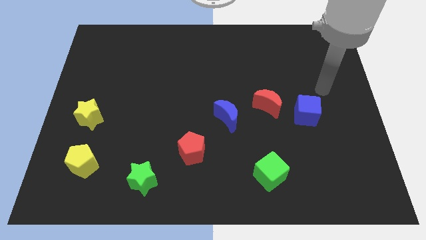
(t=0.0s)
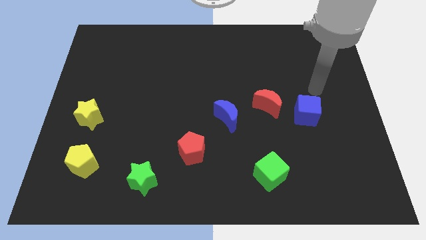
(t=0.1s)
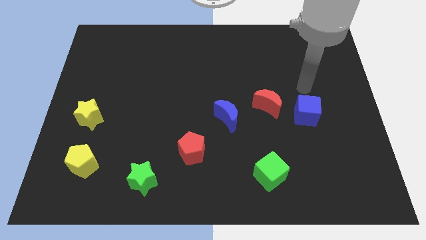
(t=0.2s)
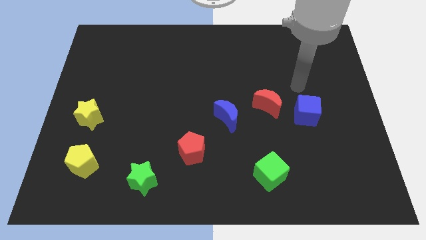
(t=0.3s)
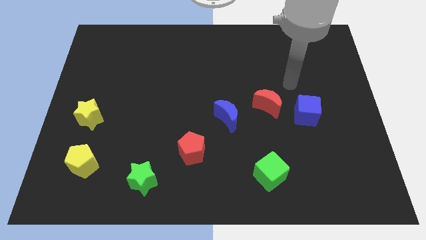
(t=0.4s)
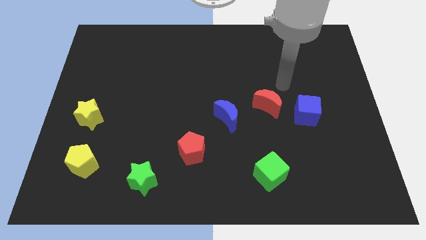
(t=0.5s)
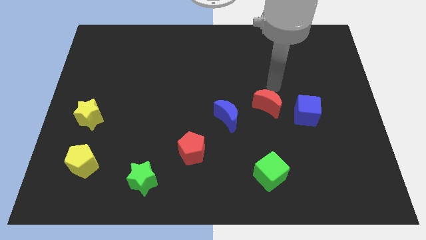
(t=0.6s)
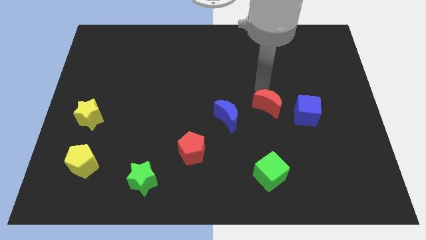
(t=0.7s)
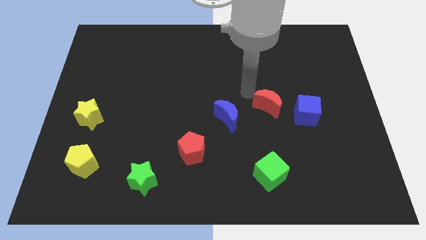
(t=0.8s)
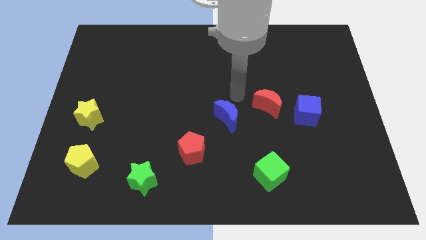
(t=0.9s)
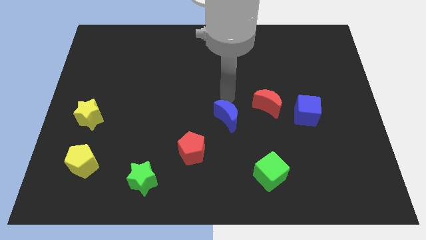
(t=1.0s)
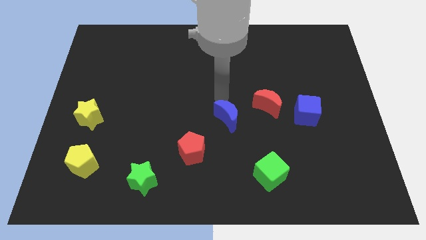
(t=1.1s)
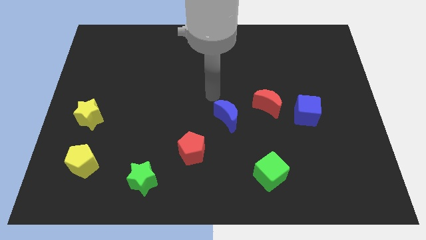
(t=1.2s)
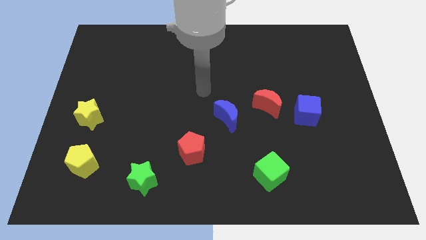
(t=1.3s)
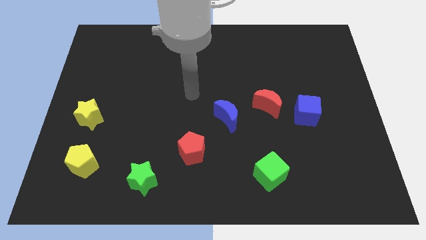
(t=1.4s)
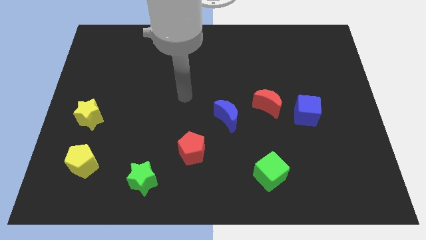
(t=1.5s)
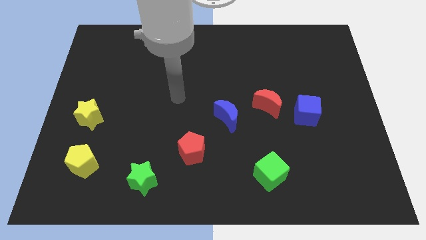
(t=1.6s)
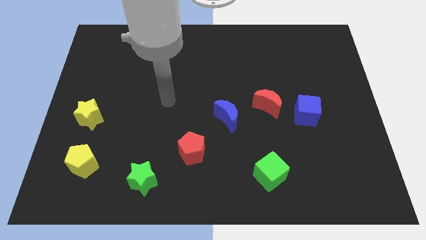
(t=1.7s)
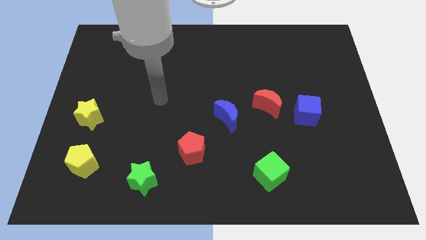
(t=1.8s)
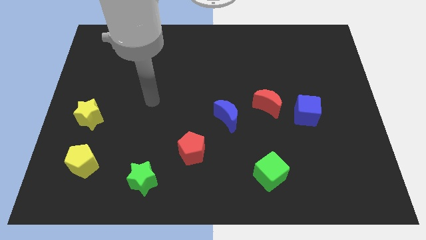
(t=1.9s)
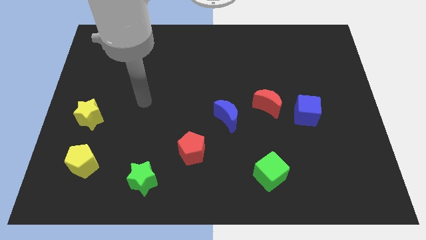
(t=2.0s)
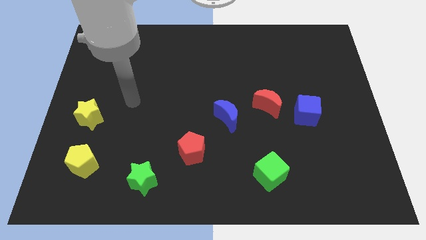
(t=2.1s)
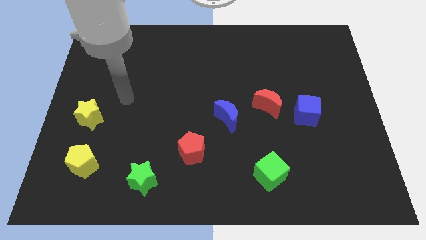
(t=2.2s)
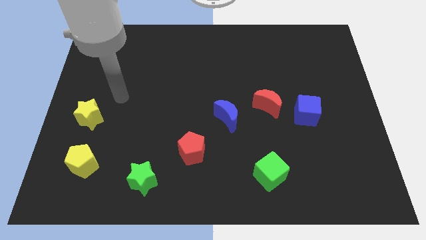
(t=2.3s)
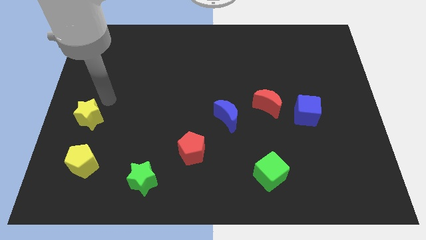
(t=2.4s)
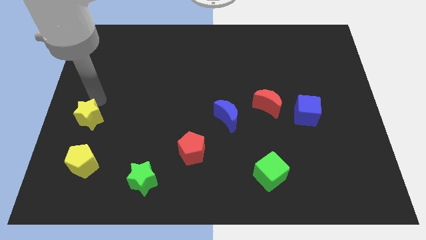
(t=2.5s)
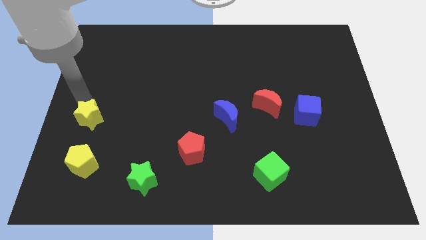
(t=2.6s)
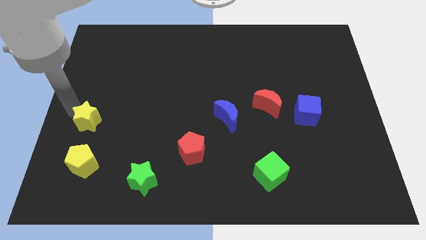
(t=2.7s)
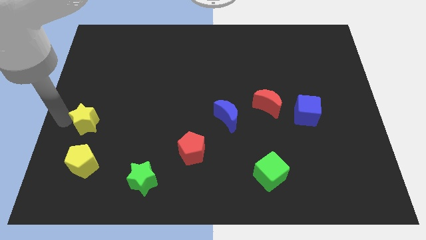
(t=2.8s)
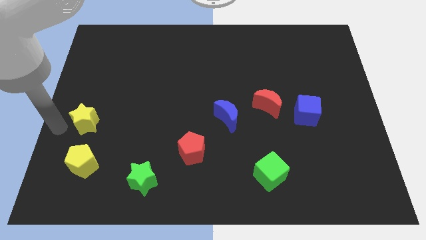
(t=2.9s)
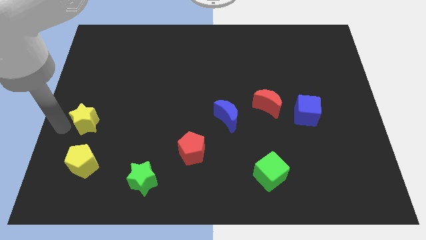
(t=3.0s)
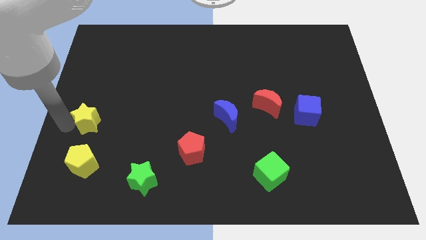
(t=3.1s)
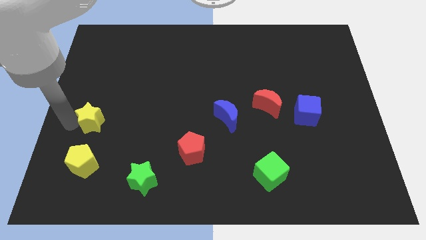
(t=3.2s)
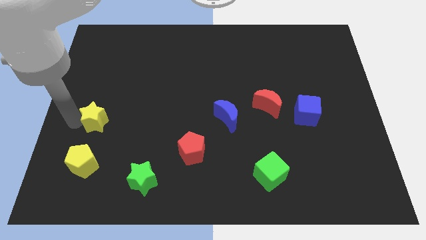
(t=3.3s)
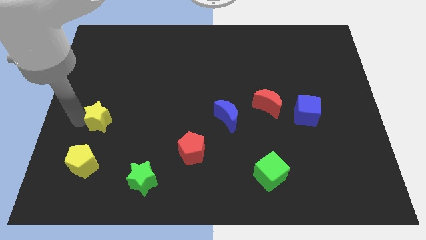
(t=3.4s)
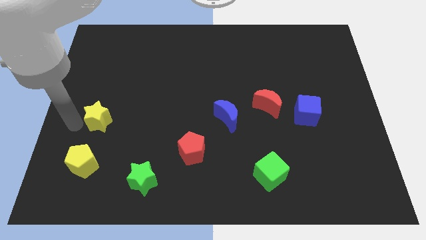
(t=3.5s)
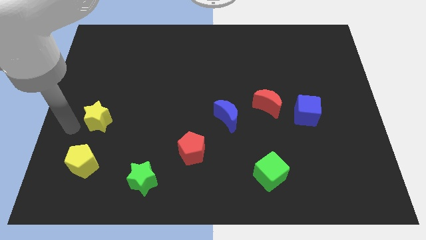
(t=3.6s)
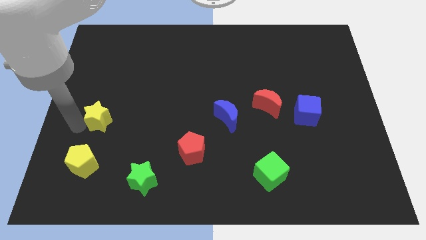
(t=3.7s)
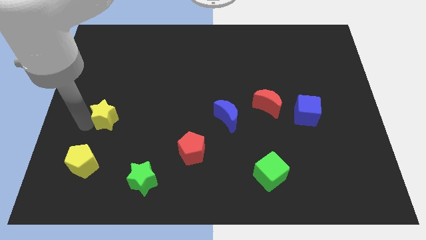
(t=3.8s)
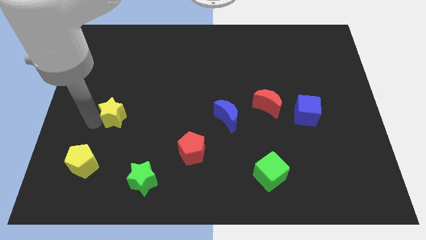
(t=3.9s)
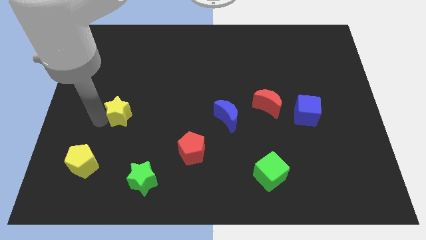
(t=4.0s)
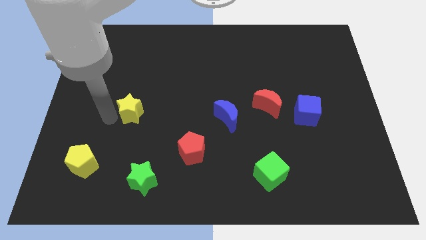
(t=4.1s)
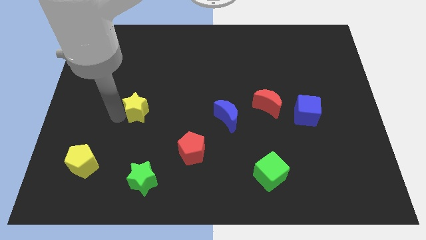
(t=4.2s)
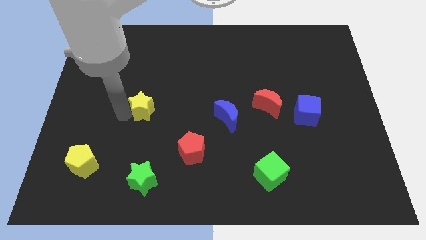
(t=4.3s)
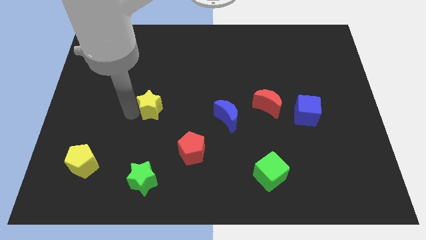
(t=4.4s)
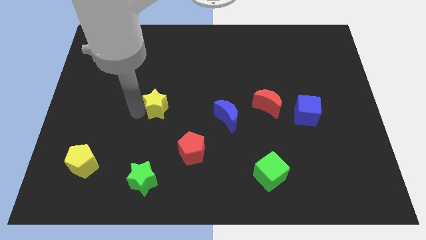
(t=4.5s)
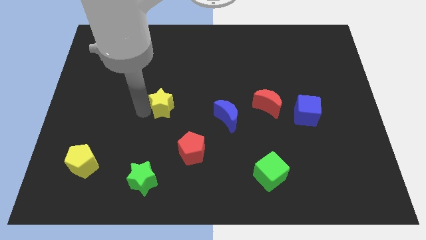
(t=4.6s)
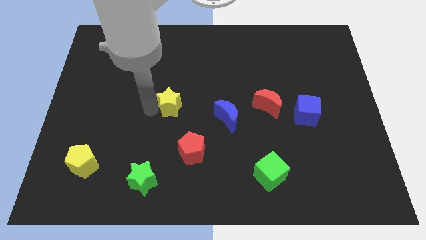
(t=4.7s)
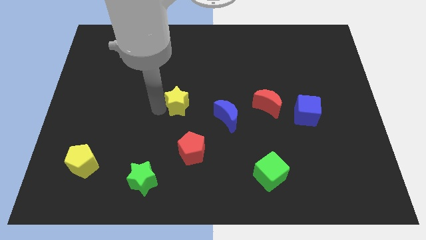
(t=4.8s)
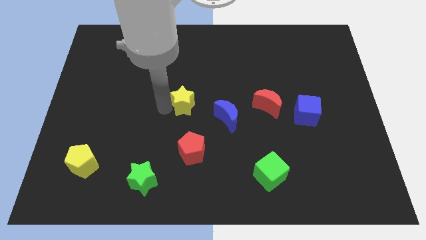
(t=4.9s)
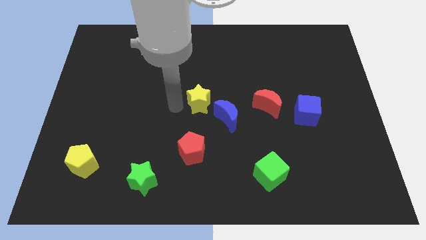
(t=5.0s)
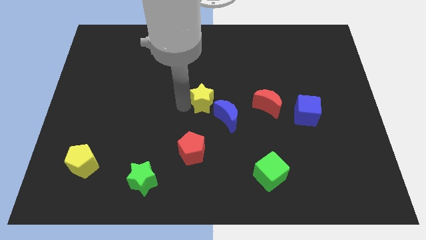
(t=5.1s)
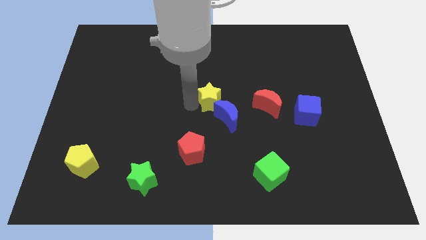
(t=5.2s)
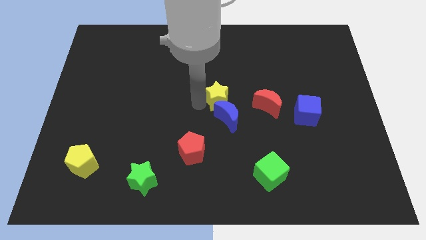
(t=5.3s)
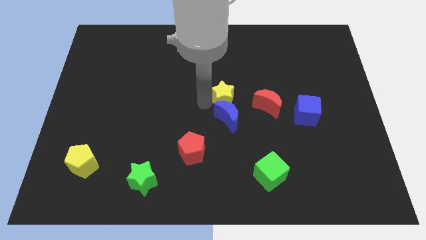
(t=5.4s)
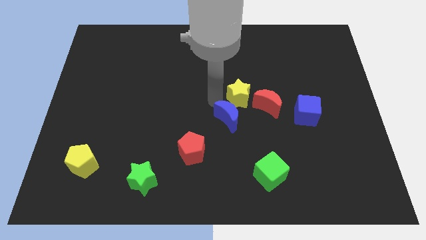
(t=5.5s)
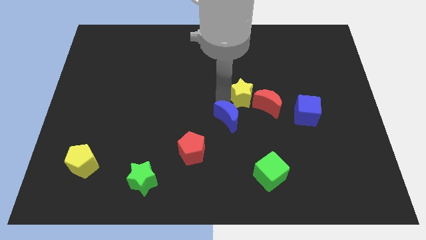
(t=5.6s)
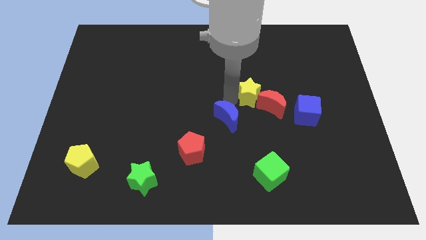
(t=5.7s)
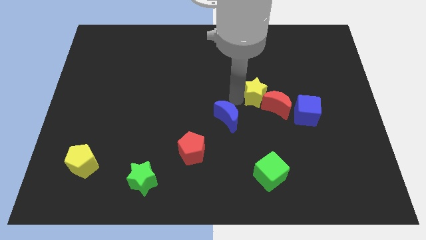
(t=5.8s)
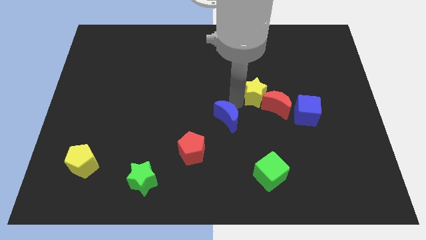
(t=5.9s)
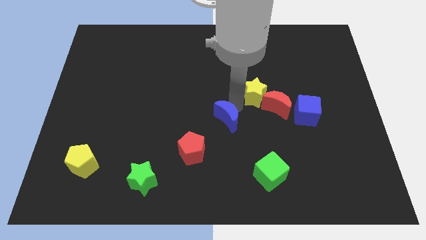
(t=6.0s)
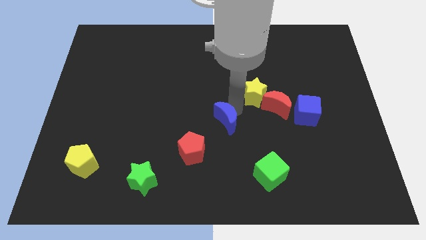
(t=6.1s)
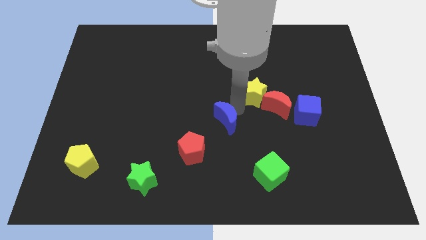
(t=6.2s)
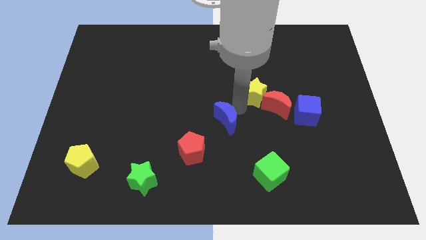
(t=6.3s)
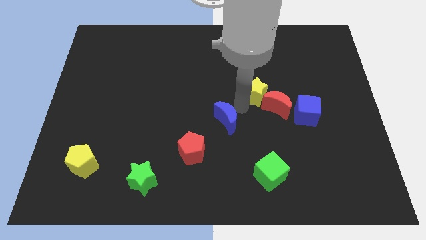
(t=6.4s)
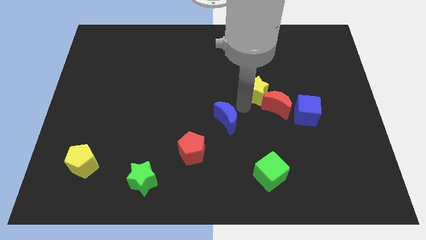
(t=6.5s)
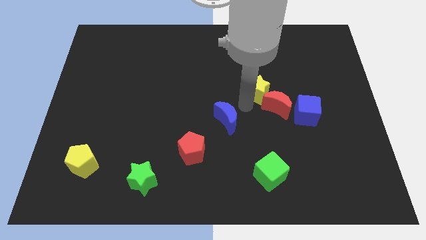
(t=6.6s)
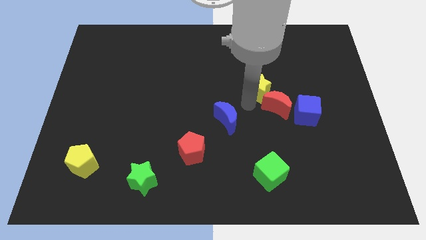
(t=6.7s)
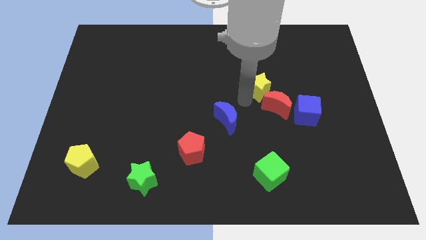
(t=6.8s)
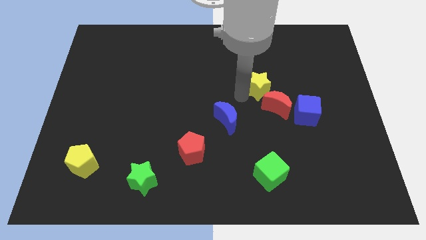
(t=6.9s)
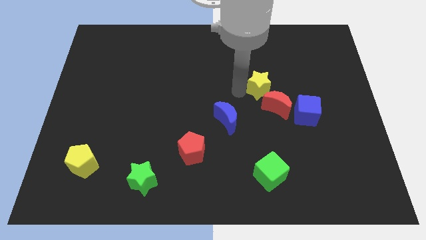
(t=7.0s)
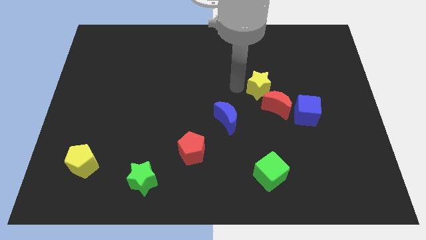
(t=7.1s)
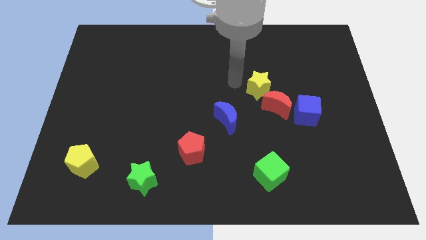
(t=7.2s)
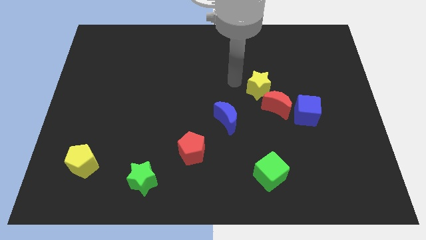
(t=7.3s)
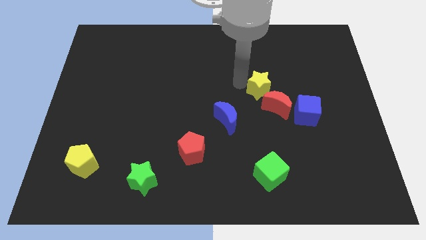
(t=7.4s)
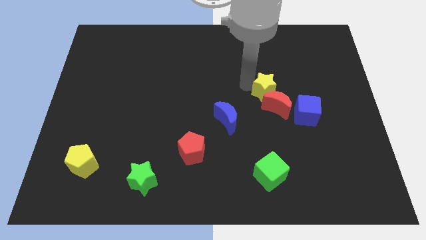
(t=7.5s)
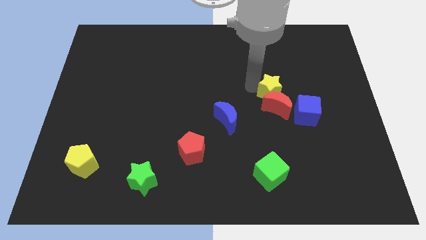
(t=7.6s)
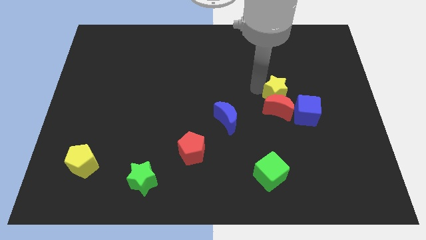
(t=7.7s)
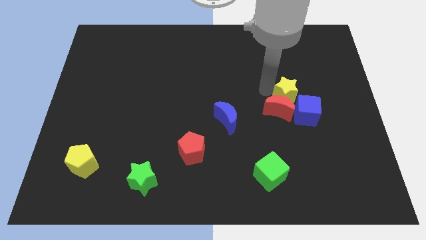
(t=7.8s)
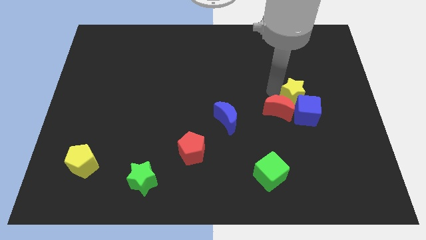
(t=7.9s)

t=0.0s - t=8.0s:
put the yellow star to the blue cube
